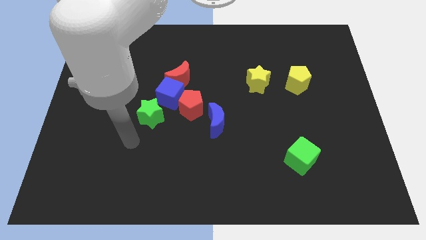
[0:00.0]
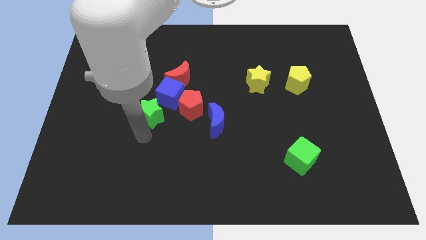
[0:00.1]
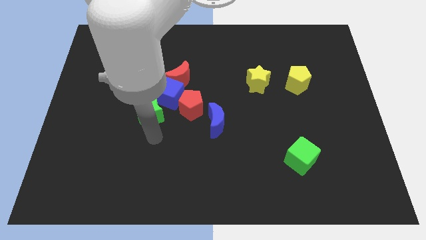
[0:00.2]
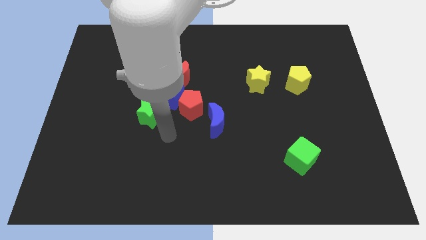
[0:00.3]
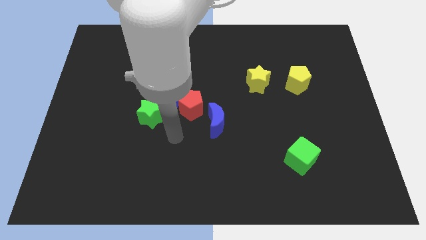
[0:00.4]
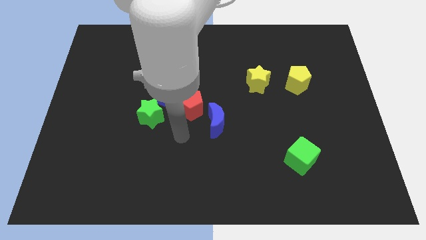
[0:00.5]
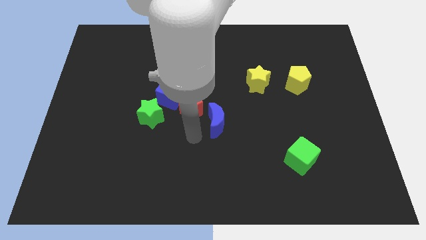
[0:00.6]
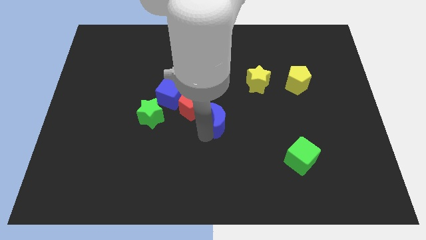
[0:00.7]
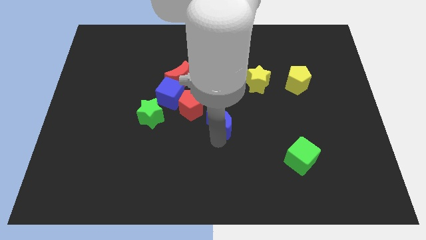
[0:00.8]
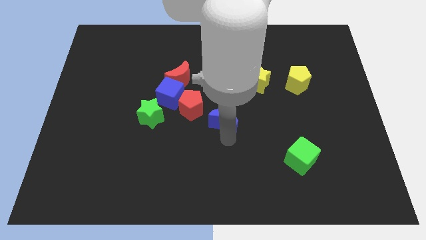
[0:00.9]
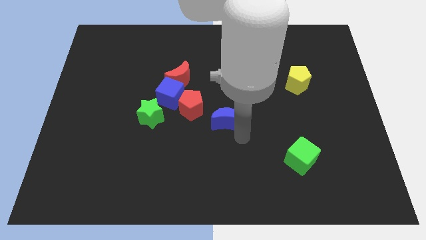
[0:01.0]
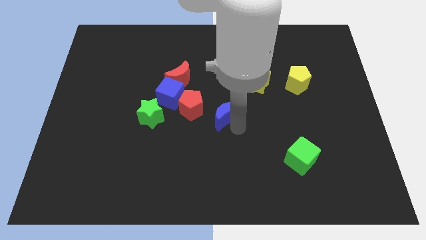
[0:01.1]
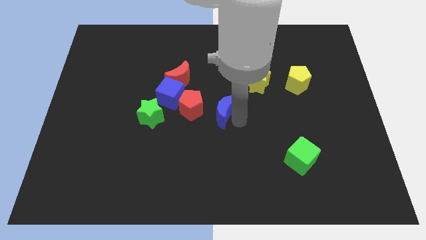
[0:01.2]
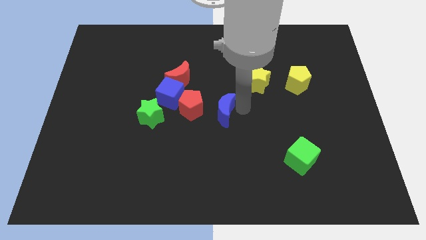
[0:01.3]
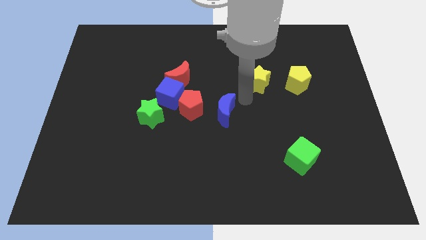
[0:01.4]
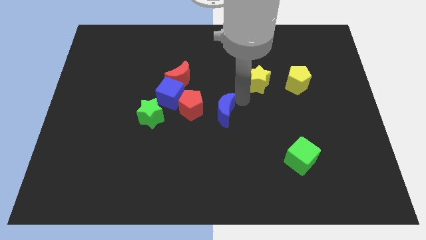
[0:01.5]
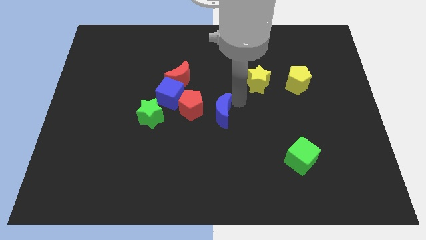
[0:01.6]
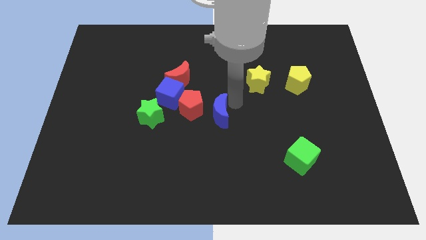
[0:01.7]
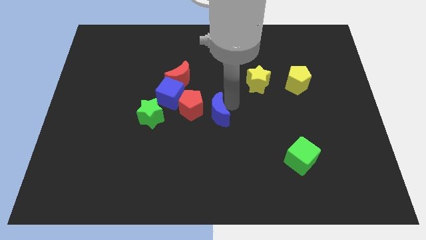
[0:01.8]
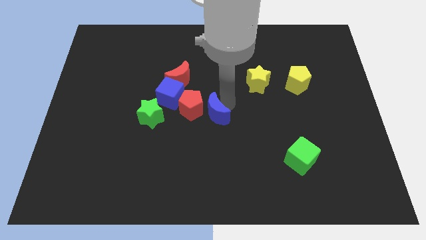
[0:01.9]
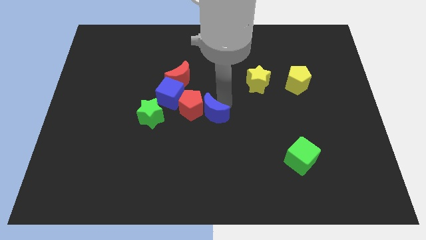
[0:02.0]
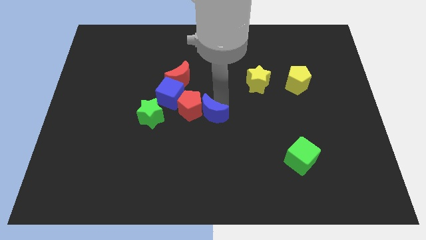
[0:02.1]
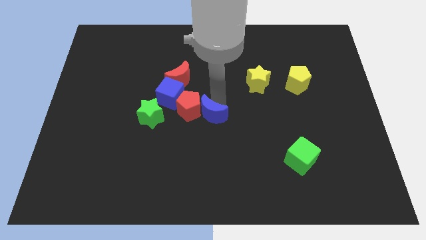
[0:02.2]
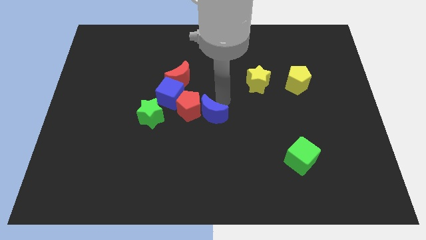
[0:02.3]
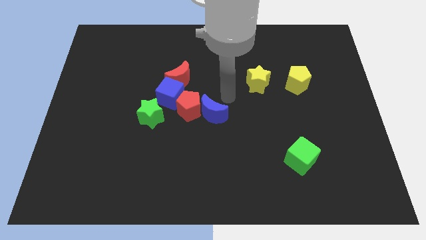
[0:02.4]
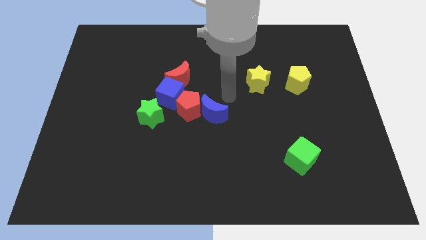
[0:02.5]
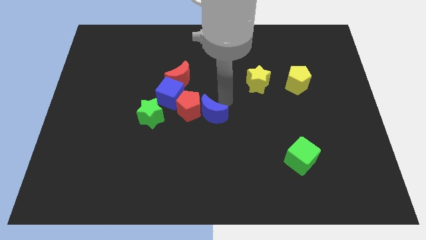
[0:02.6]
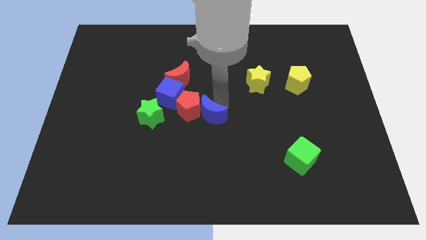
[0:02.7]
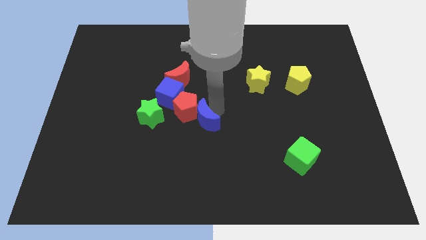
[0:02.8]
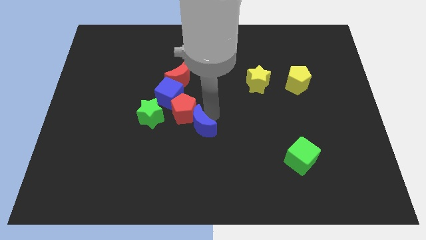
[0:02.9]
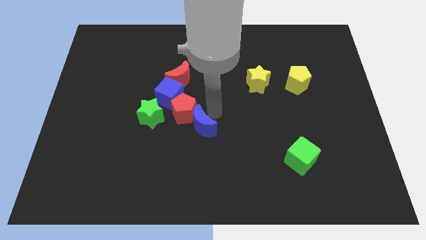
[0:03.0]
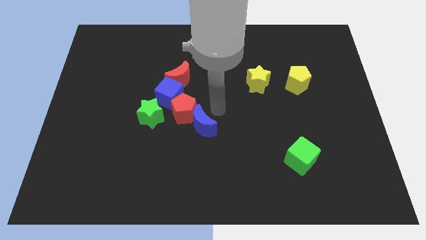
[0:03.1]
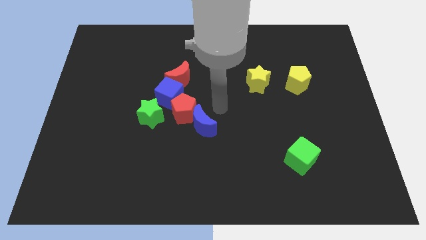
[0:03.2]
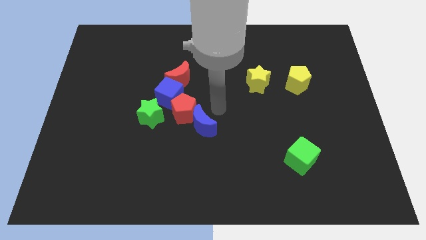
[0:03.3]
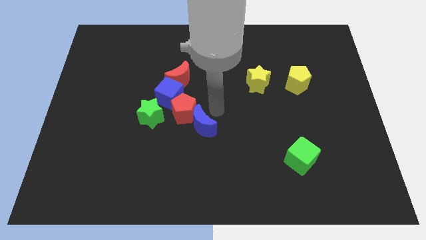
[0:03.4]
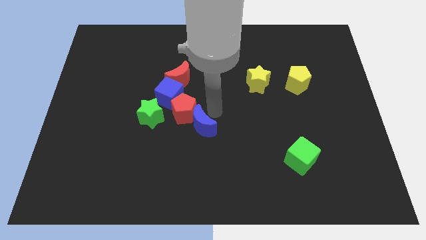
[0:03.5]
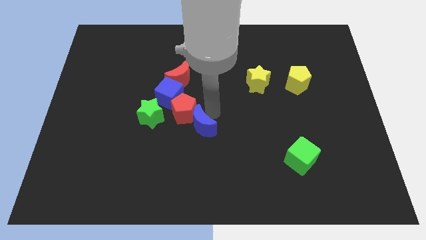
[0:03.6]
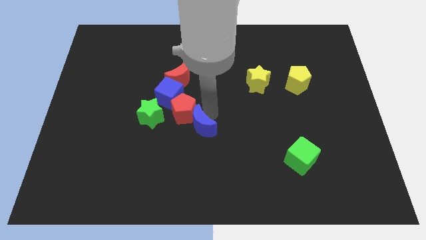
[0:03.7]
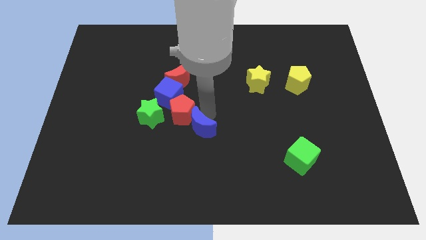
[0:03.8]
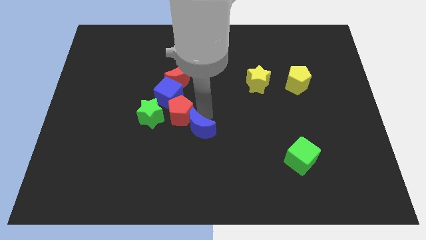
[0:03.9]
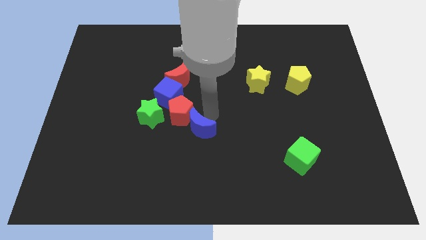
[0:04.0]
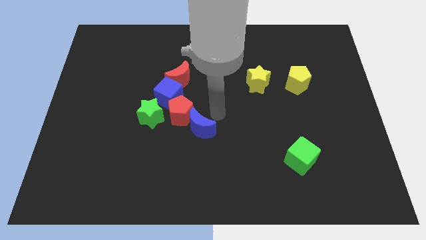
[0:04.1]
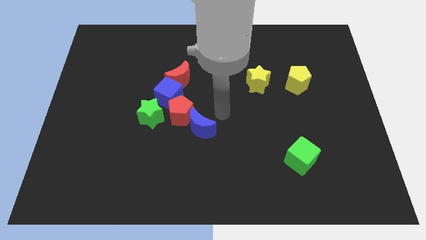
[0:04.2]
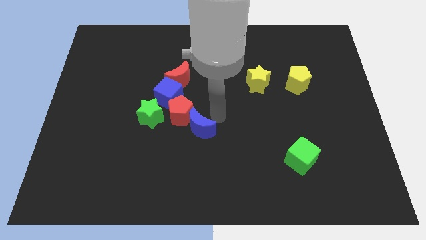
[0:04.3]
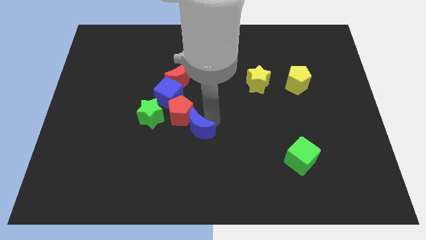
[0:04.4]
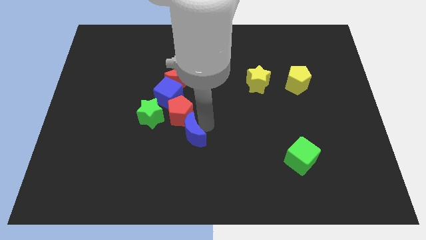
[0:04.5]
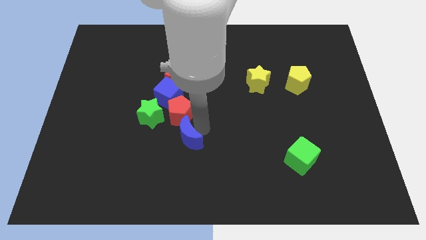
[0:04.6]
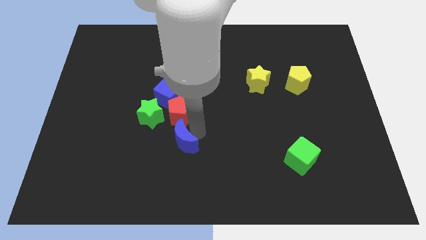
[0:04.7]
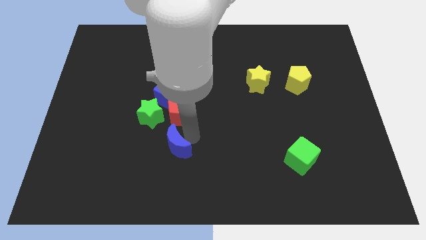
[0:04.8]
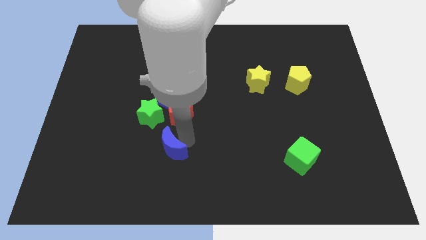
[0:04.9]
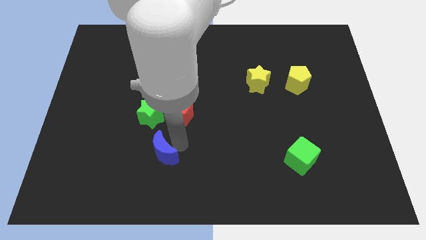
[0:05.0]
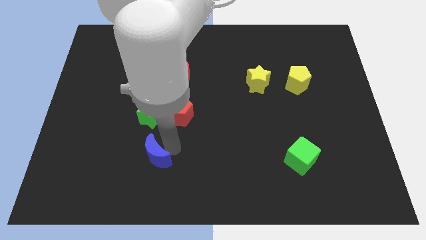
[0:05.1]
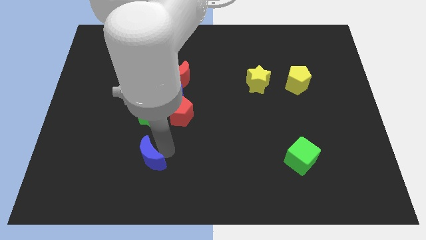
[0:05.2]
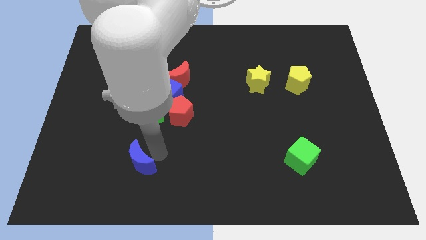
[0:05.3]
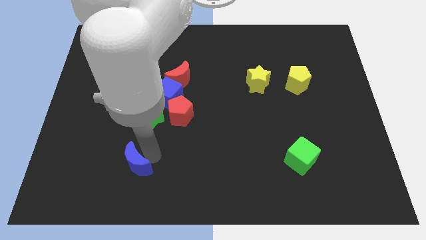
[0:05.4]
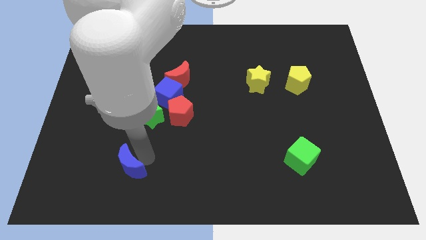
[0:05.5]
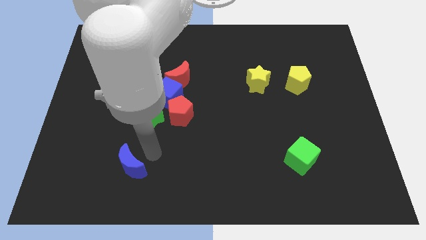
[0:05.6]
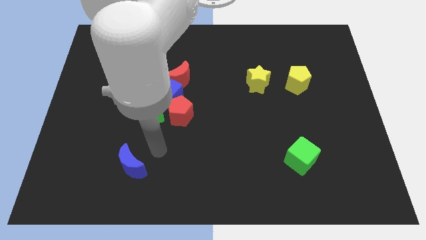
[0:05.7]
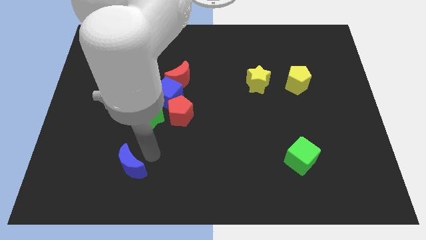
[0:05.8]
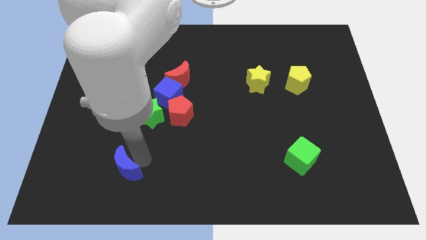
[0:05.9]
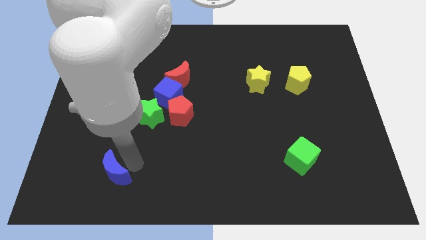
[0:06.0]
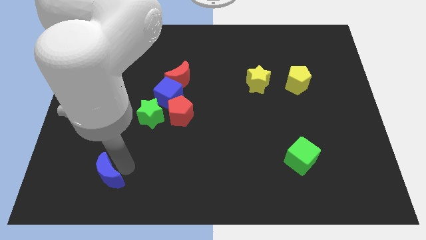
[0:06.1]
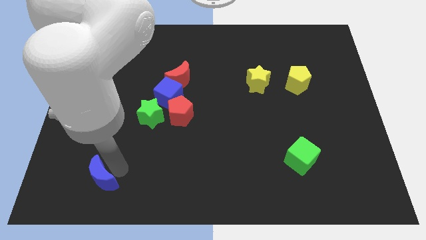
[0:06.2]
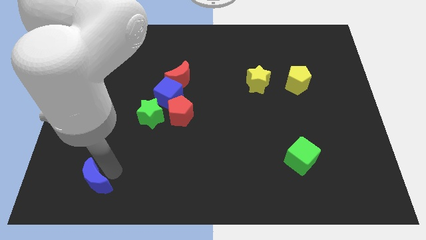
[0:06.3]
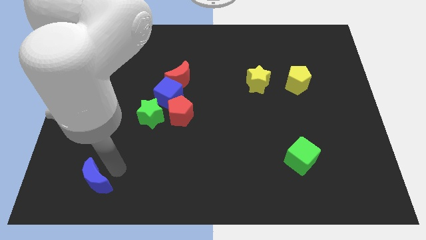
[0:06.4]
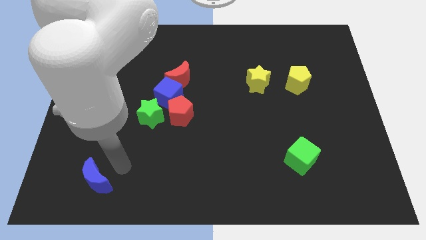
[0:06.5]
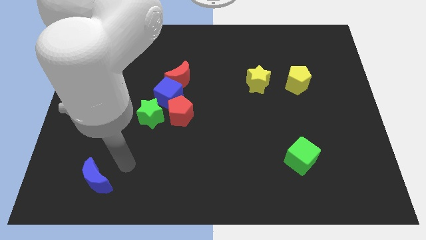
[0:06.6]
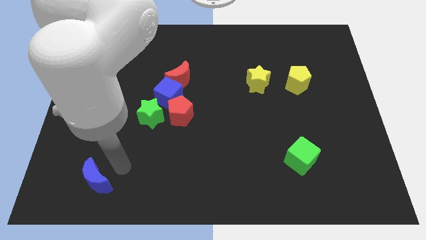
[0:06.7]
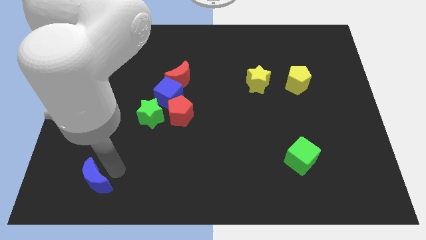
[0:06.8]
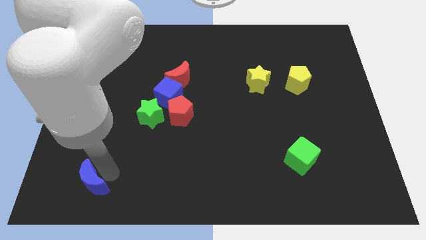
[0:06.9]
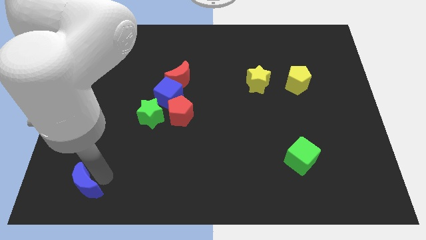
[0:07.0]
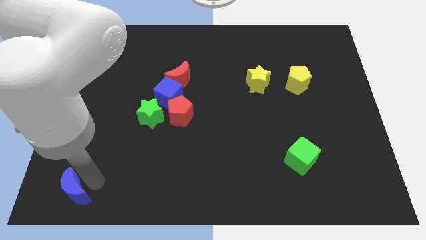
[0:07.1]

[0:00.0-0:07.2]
move the blue moon to the bottom left of the board
